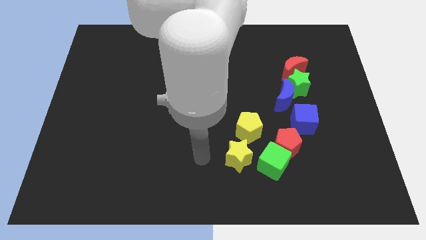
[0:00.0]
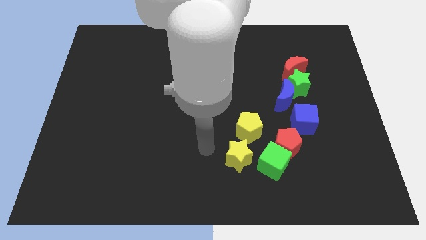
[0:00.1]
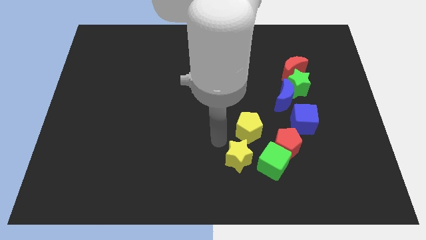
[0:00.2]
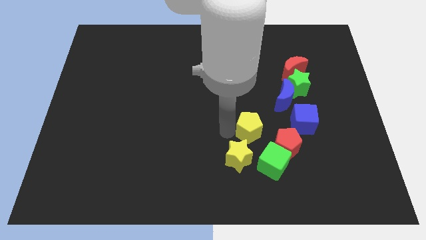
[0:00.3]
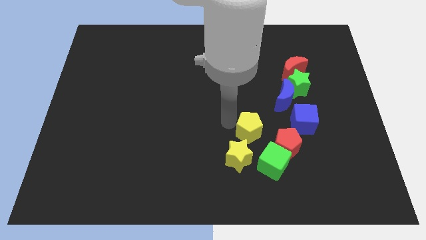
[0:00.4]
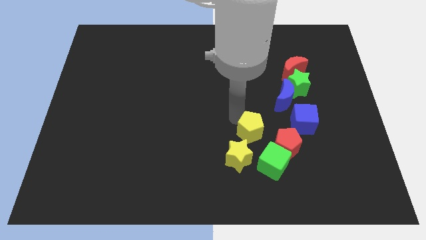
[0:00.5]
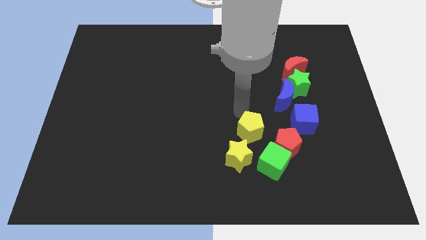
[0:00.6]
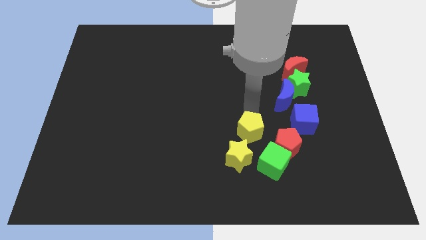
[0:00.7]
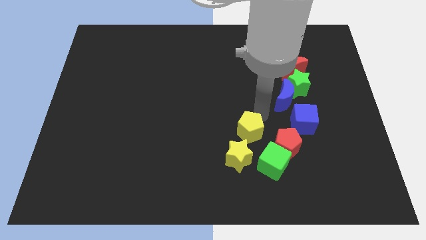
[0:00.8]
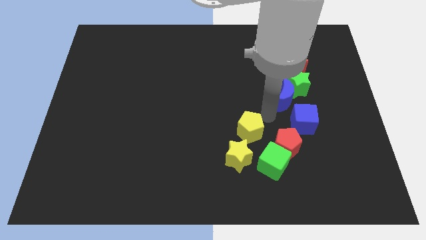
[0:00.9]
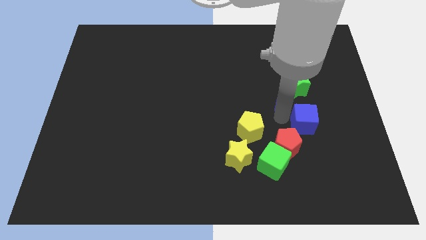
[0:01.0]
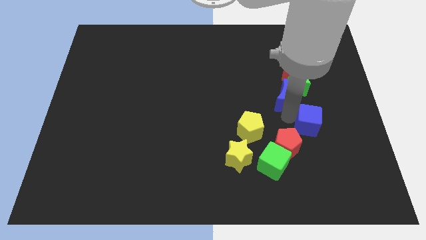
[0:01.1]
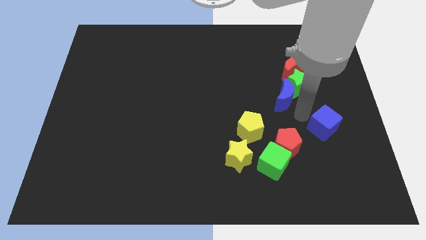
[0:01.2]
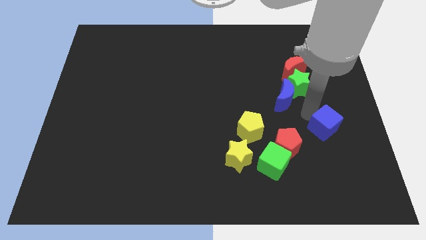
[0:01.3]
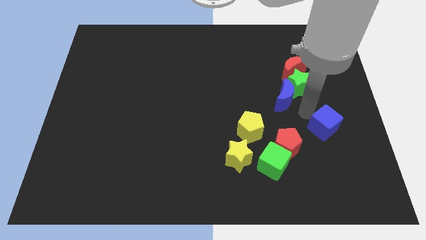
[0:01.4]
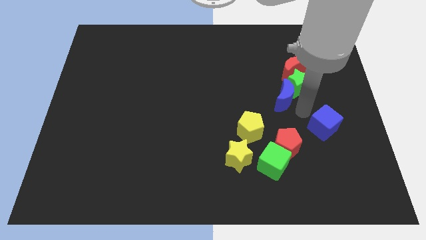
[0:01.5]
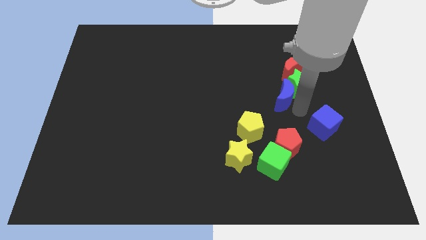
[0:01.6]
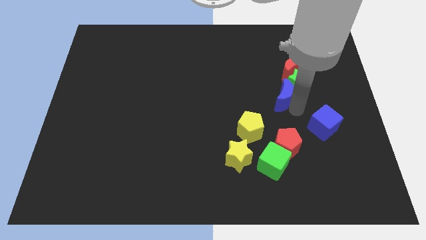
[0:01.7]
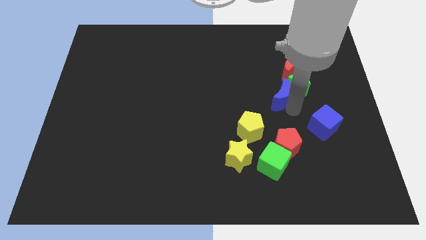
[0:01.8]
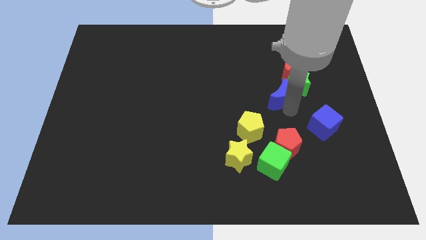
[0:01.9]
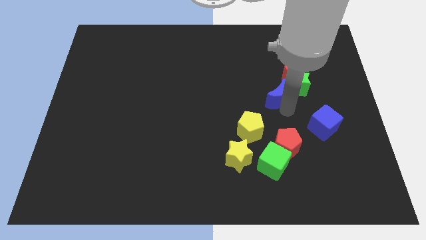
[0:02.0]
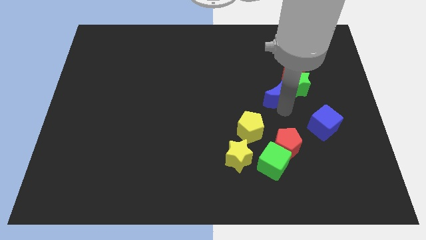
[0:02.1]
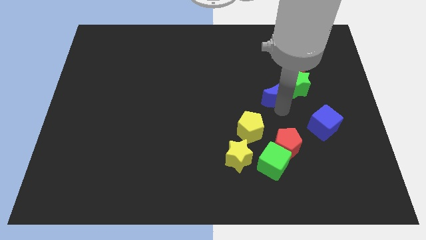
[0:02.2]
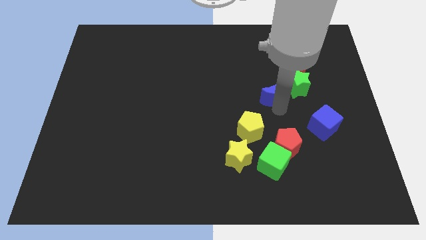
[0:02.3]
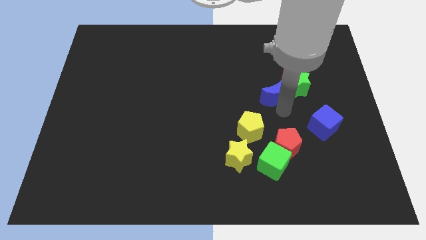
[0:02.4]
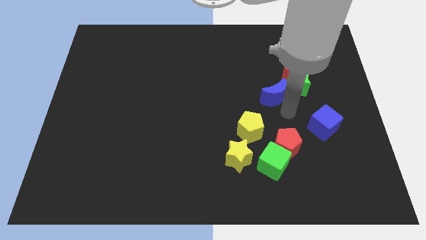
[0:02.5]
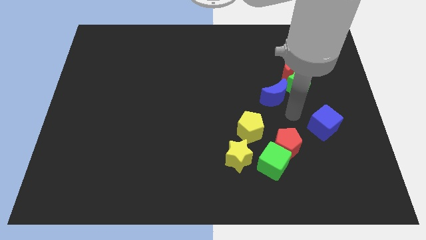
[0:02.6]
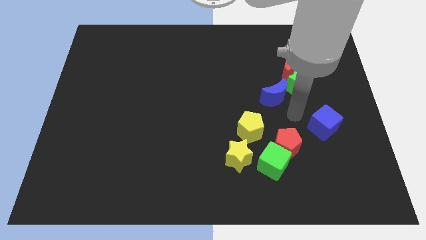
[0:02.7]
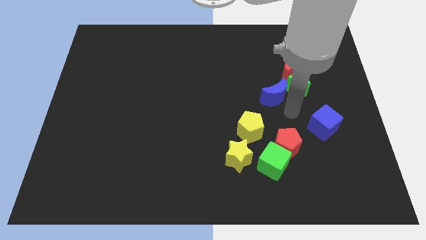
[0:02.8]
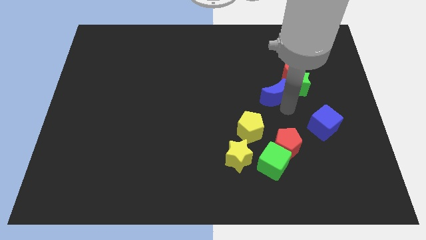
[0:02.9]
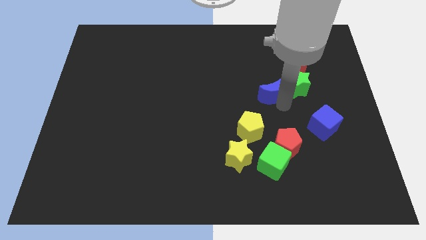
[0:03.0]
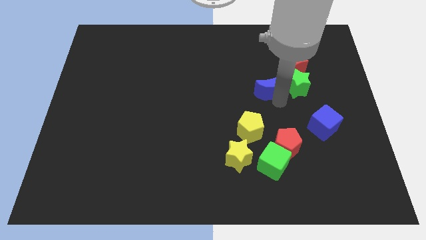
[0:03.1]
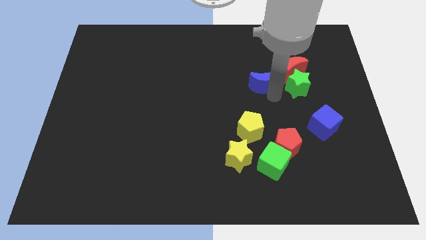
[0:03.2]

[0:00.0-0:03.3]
move the blue moon a little bit diagonally up and to the left

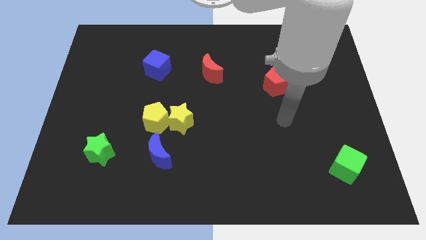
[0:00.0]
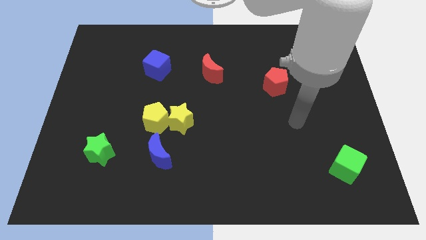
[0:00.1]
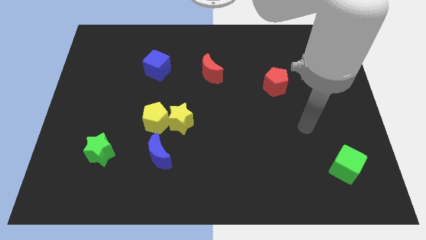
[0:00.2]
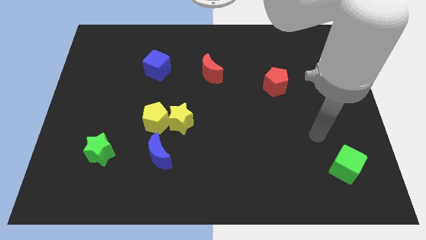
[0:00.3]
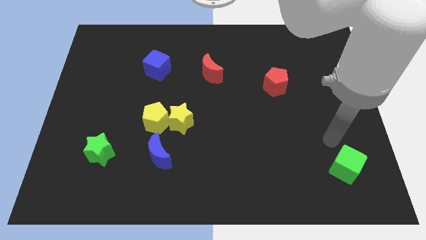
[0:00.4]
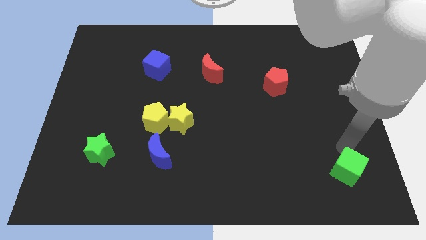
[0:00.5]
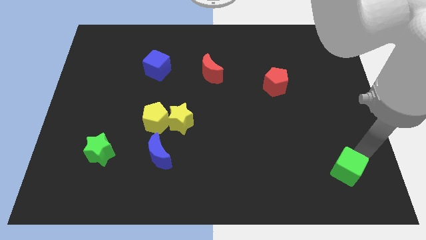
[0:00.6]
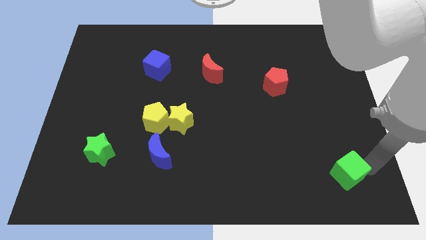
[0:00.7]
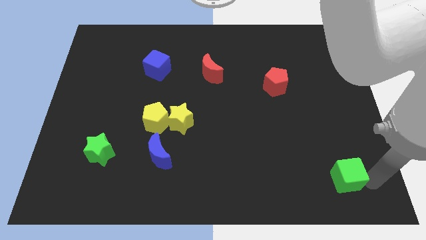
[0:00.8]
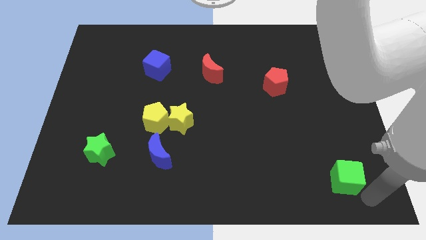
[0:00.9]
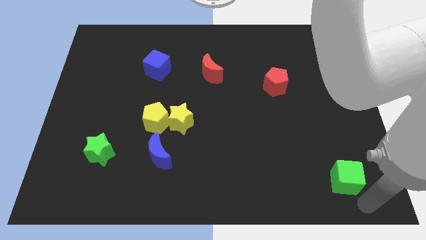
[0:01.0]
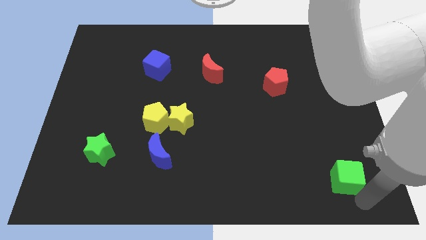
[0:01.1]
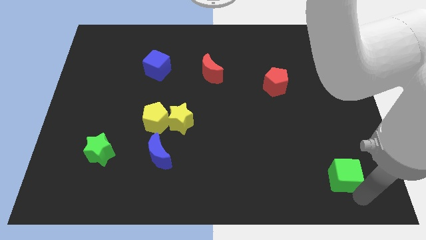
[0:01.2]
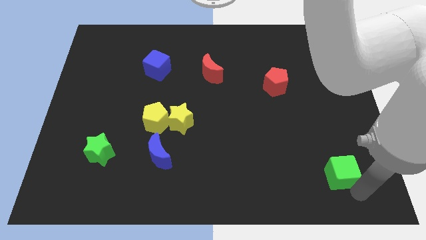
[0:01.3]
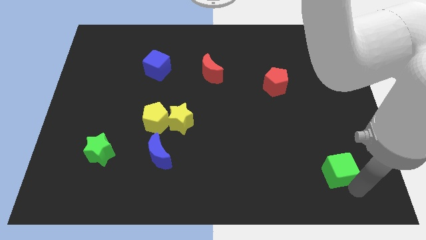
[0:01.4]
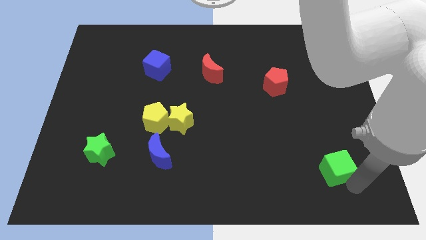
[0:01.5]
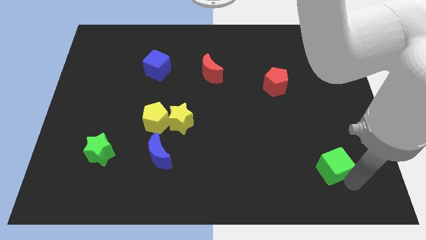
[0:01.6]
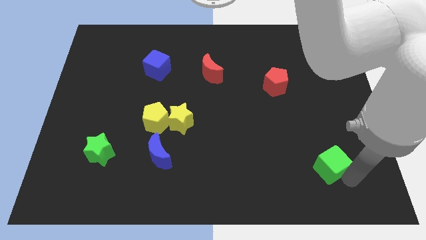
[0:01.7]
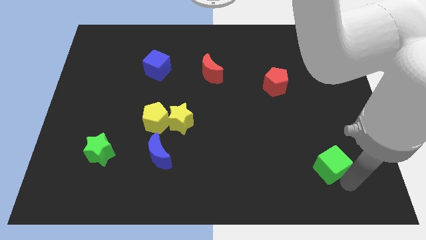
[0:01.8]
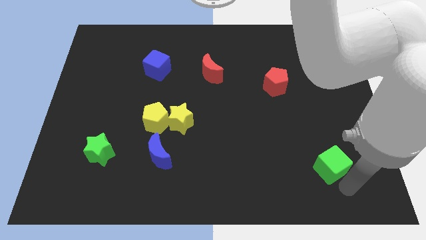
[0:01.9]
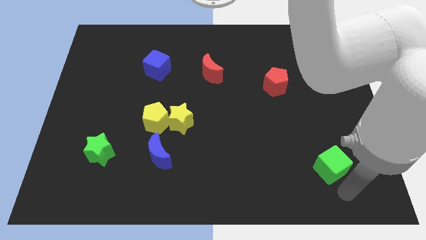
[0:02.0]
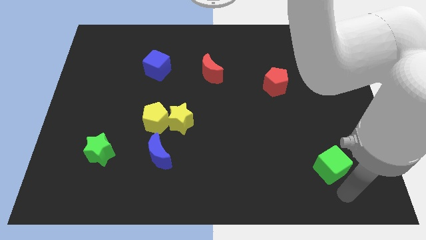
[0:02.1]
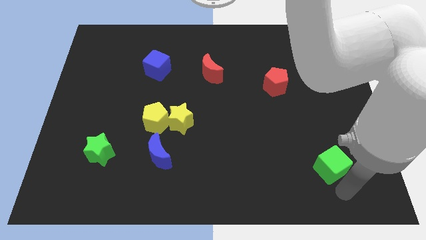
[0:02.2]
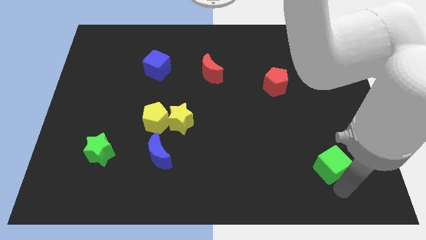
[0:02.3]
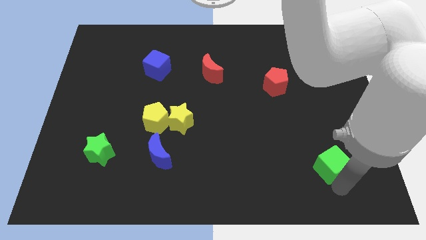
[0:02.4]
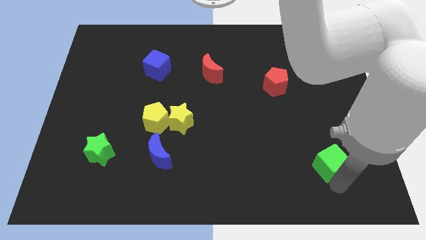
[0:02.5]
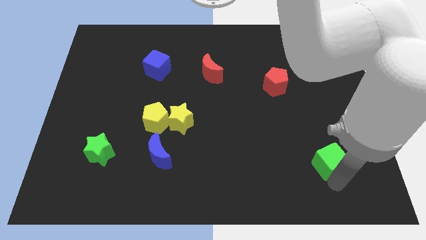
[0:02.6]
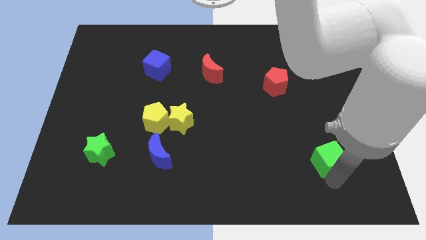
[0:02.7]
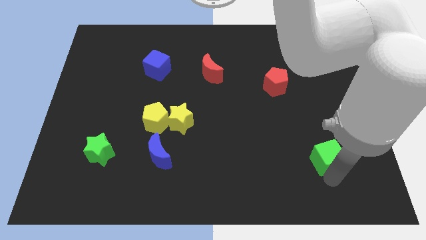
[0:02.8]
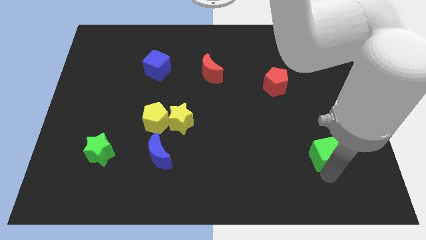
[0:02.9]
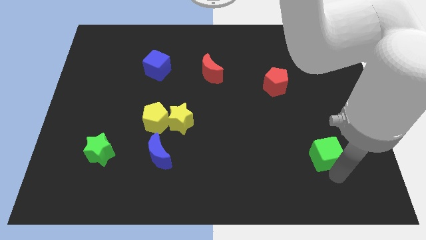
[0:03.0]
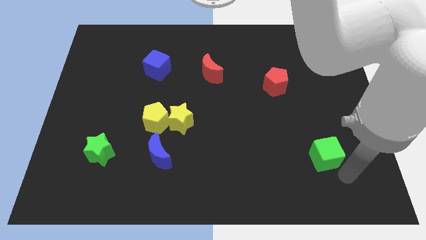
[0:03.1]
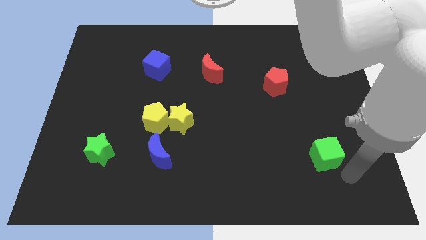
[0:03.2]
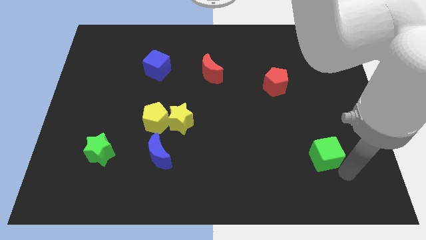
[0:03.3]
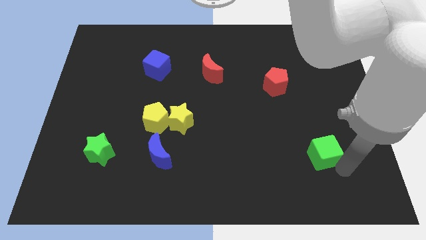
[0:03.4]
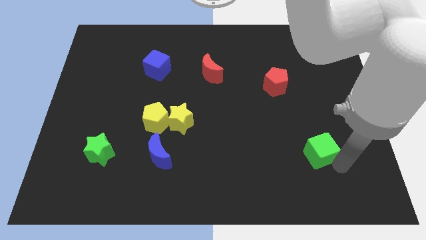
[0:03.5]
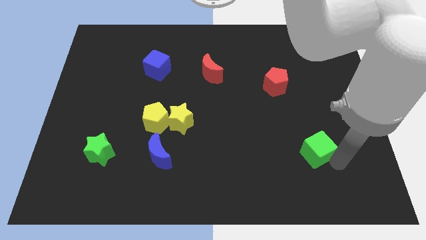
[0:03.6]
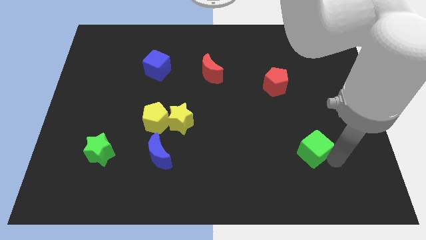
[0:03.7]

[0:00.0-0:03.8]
move the green cube a little up and to the left diagonally

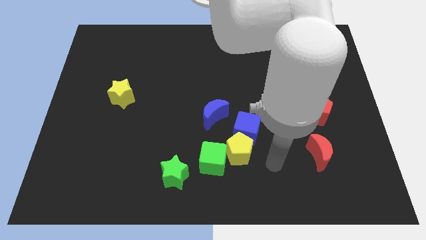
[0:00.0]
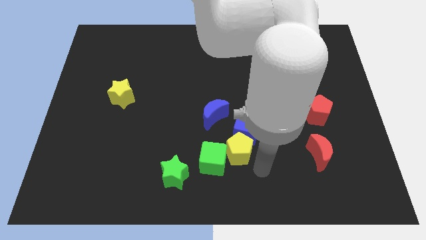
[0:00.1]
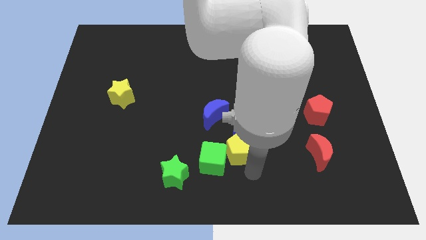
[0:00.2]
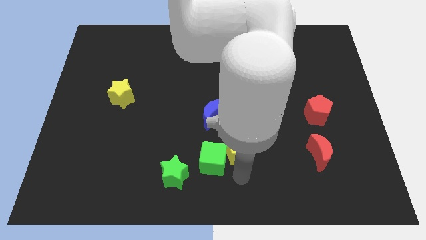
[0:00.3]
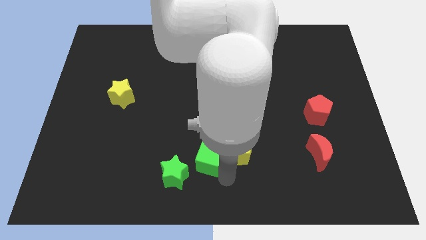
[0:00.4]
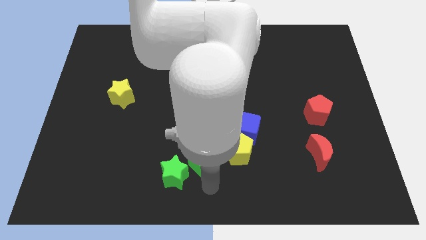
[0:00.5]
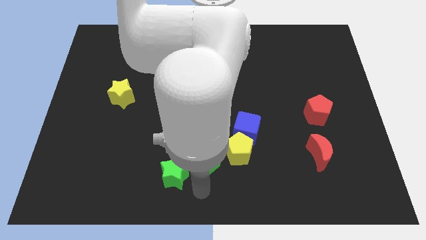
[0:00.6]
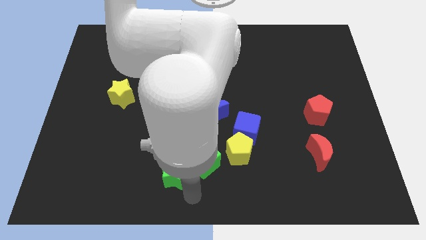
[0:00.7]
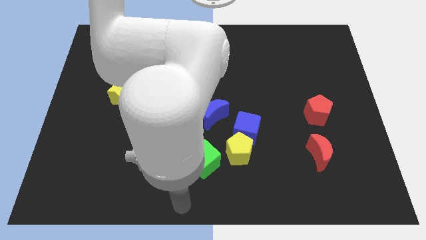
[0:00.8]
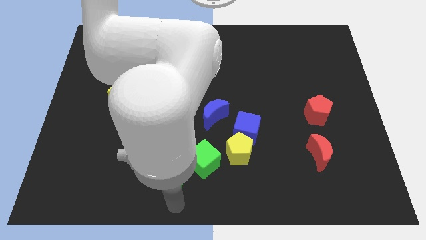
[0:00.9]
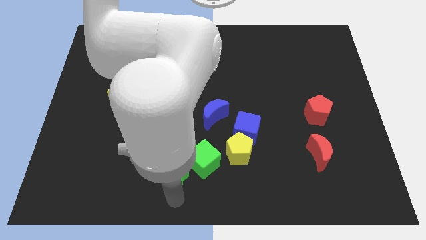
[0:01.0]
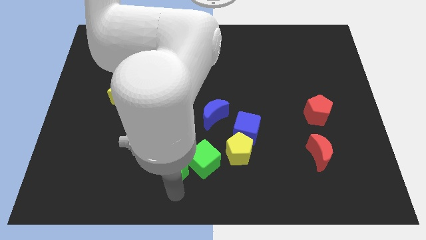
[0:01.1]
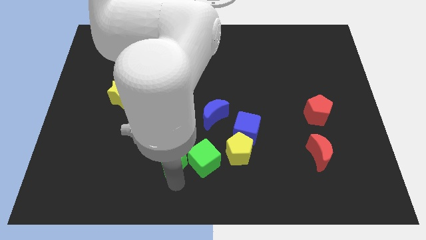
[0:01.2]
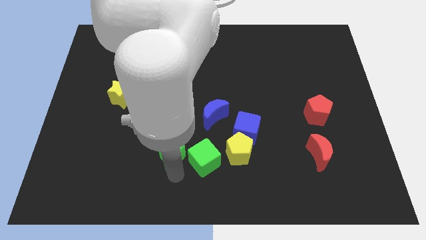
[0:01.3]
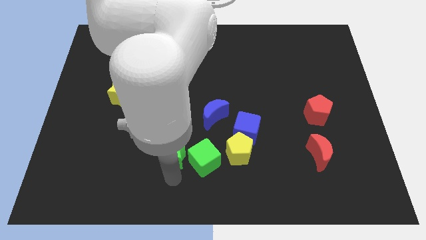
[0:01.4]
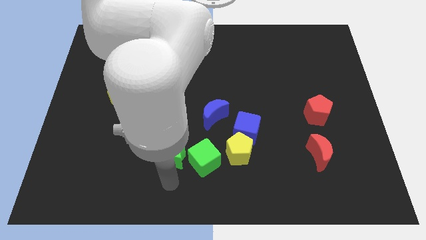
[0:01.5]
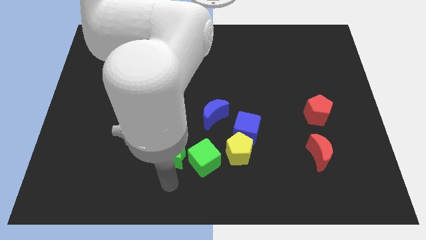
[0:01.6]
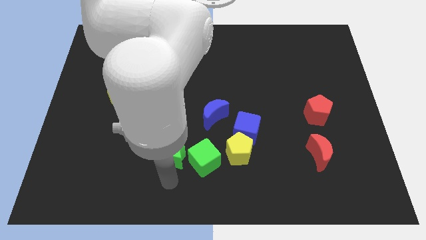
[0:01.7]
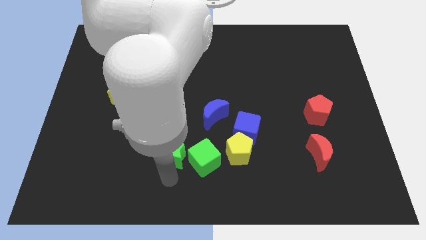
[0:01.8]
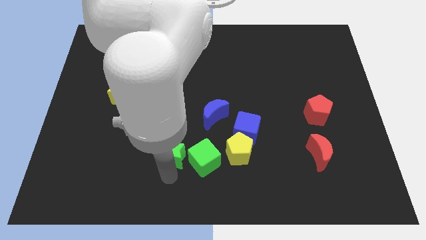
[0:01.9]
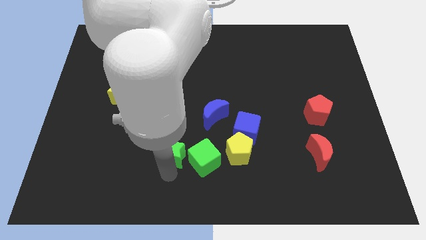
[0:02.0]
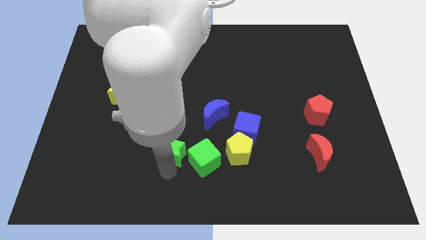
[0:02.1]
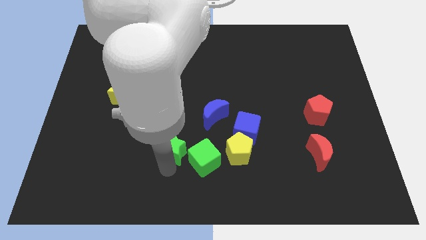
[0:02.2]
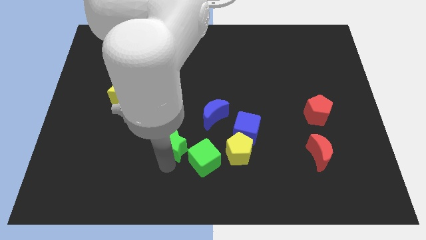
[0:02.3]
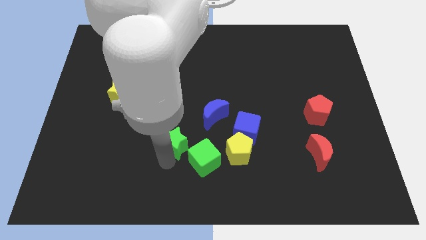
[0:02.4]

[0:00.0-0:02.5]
slightly push the green star up
